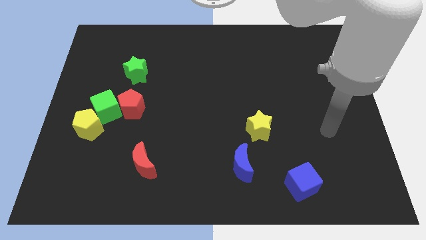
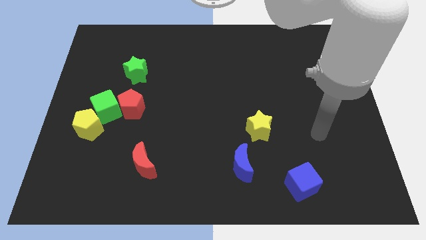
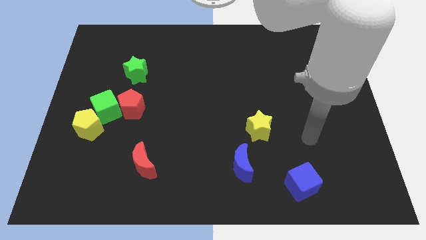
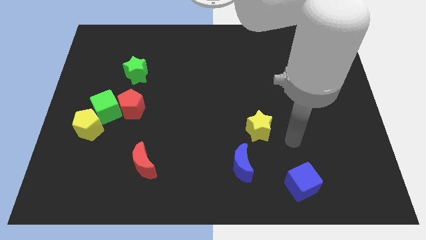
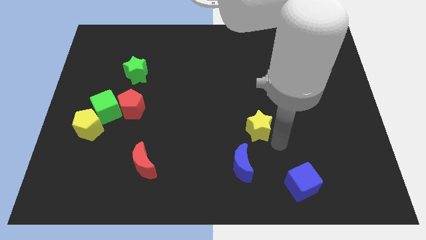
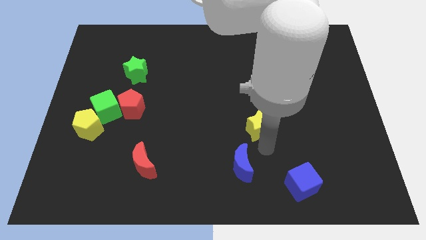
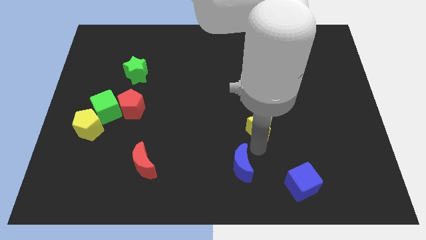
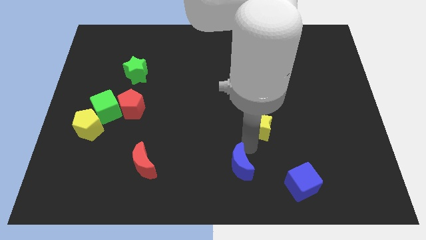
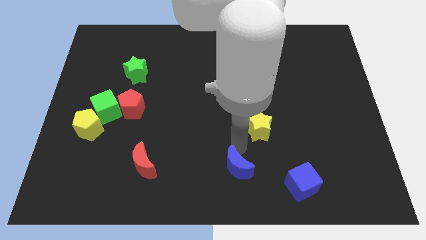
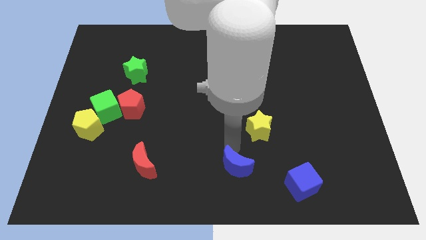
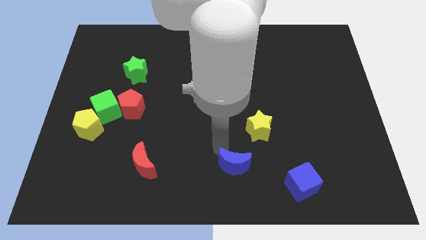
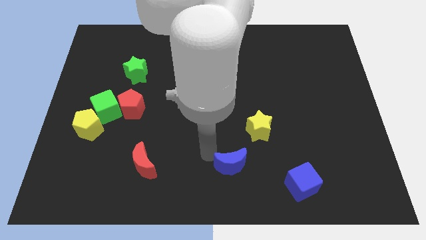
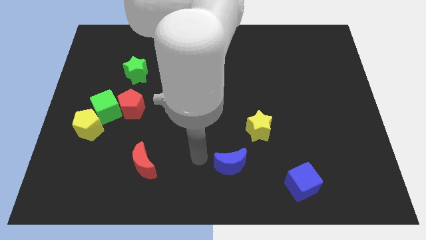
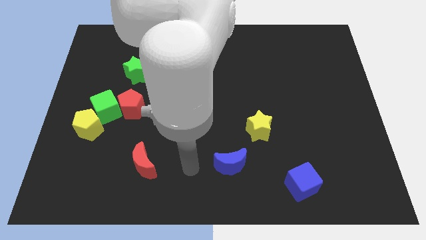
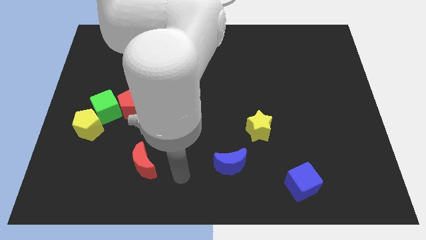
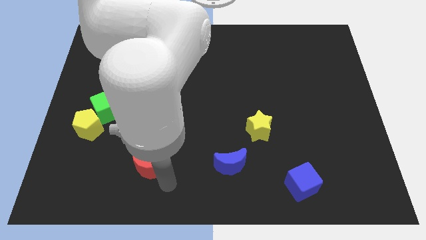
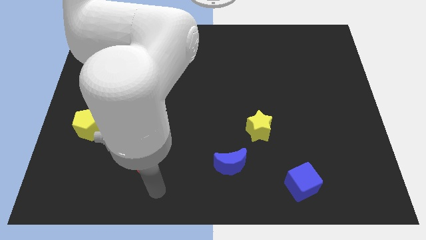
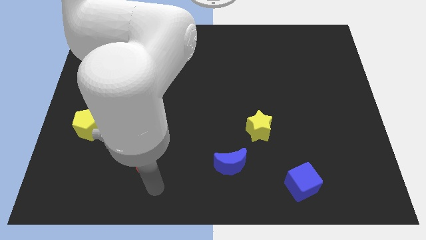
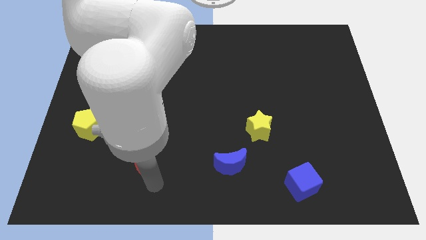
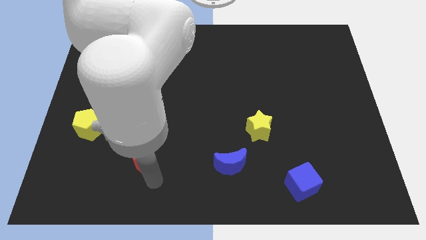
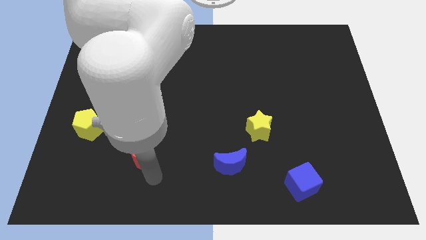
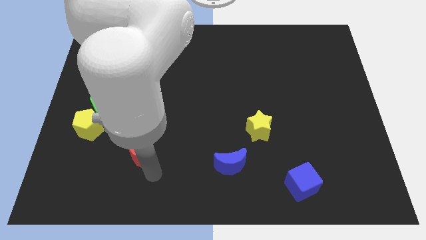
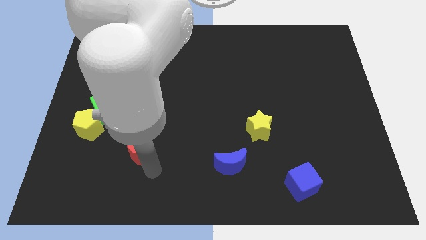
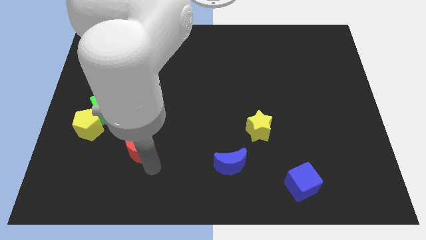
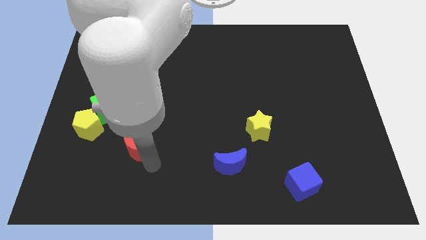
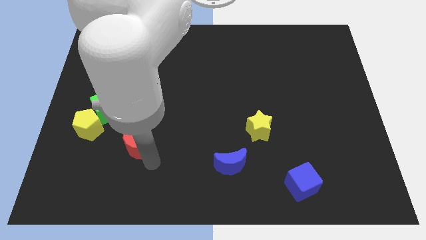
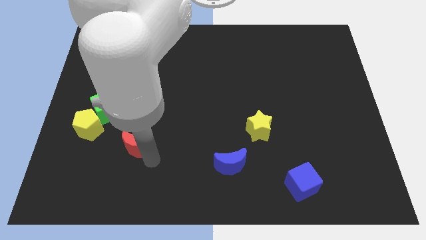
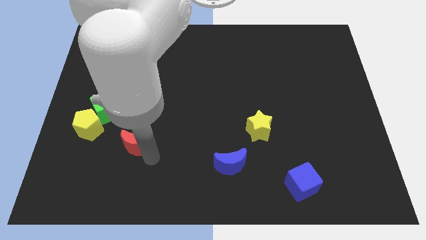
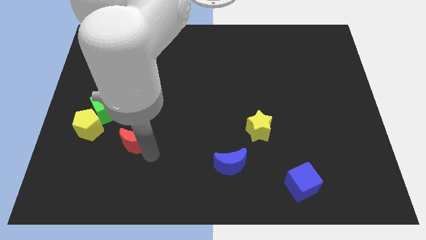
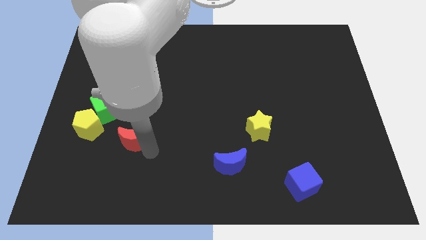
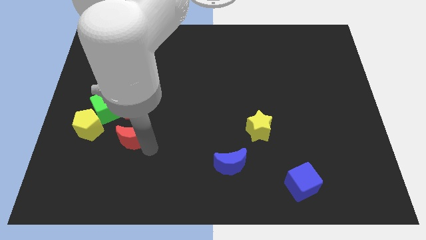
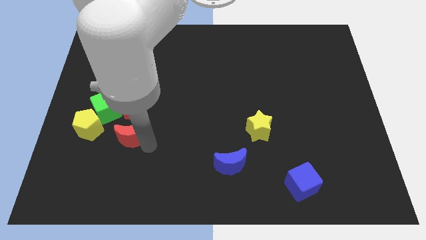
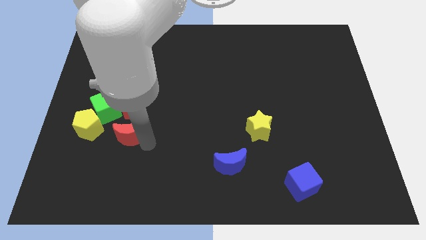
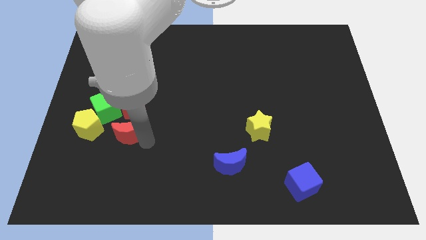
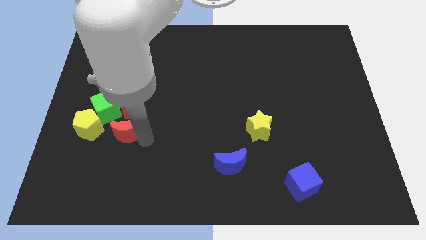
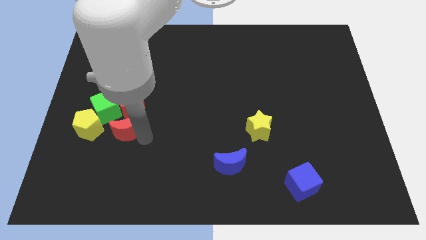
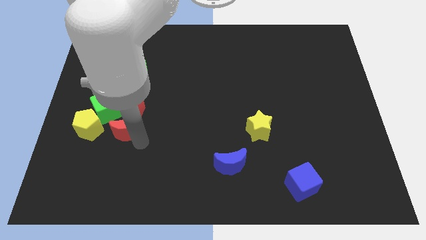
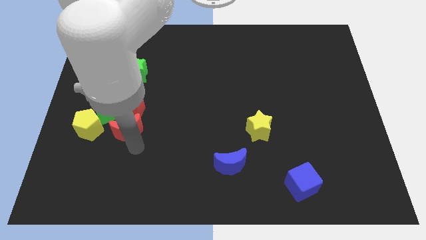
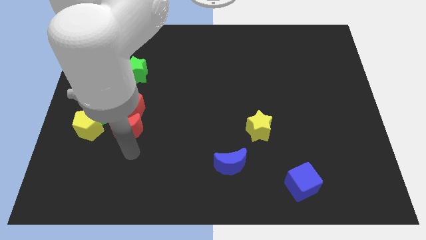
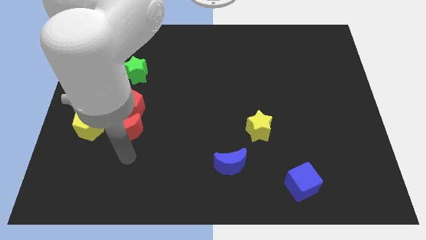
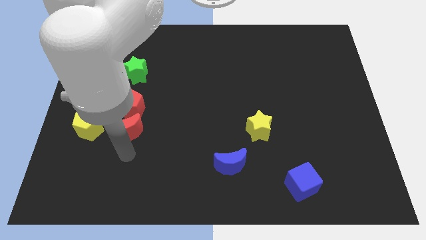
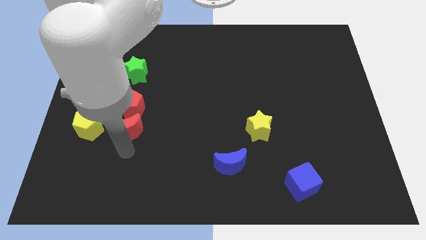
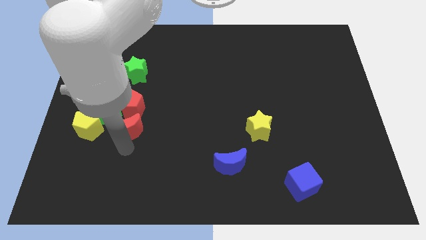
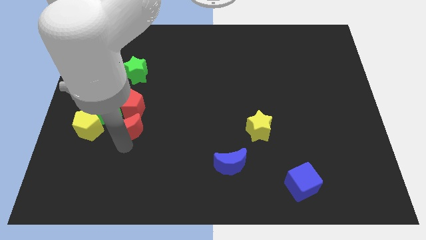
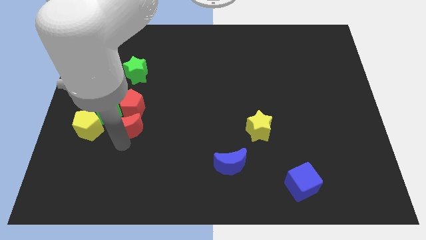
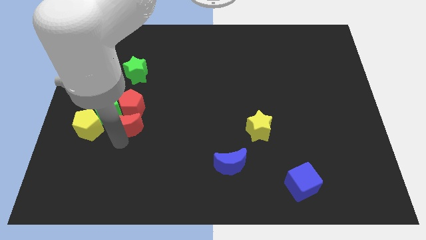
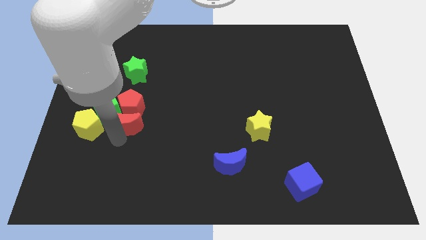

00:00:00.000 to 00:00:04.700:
put the red moon to the bottom side of the green star

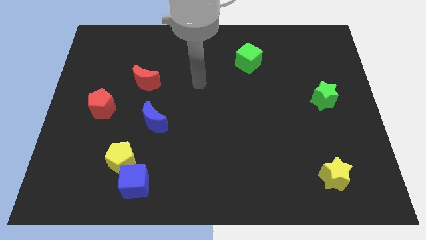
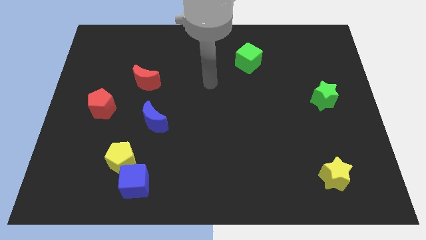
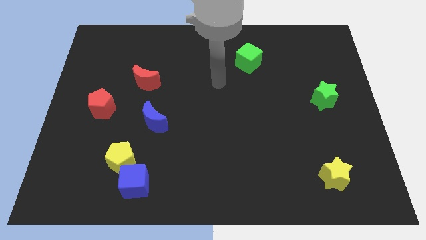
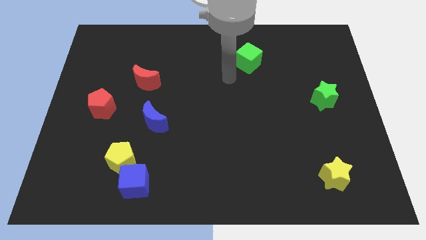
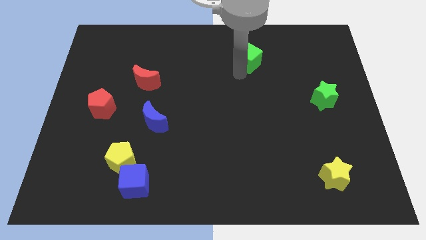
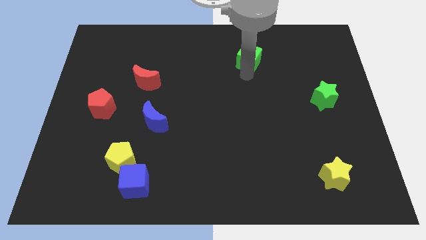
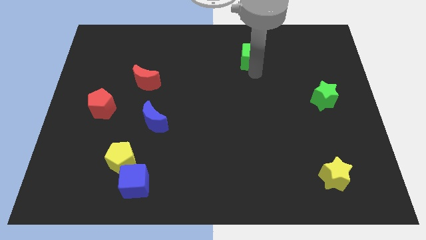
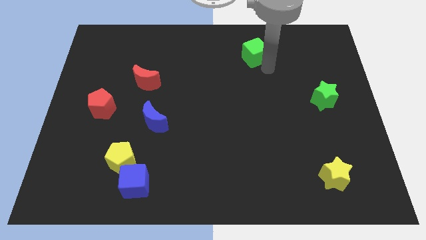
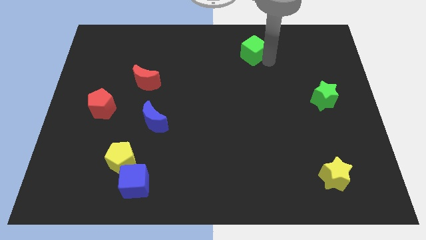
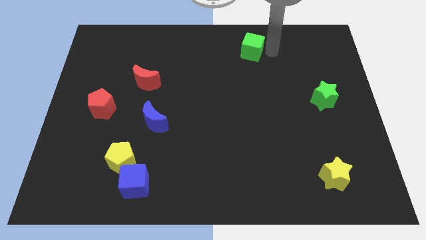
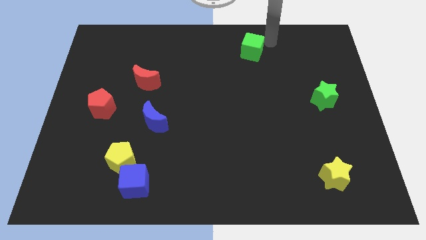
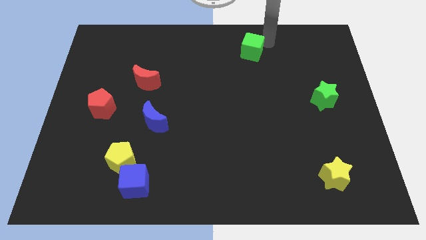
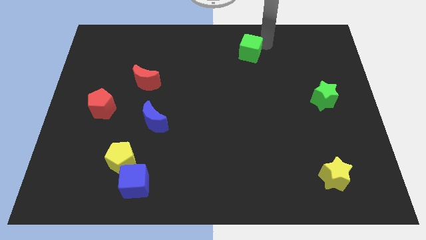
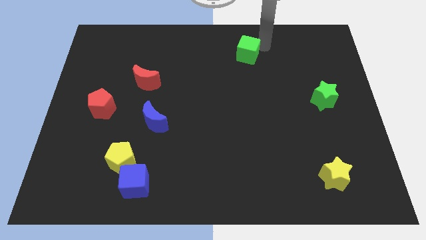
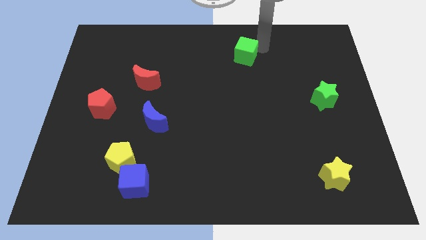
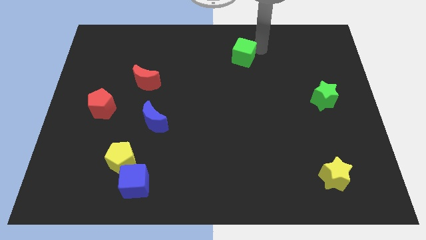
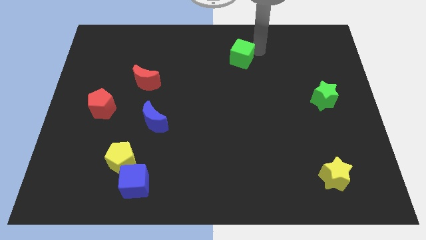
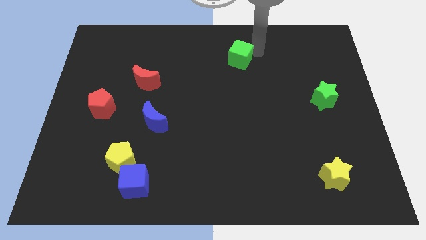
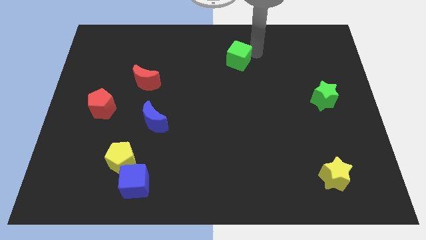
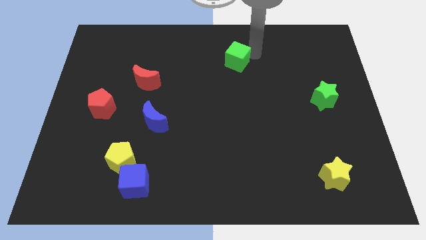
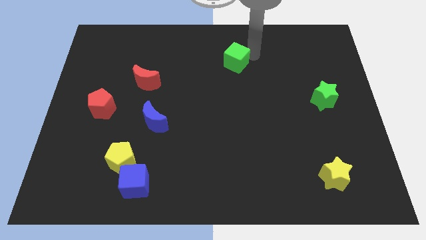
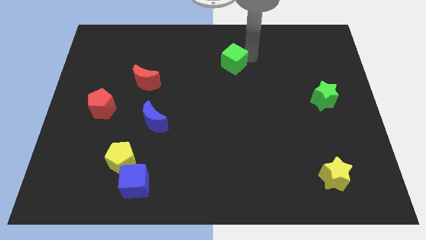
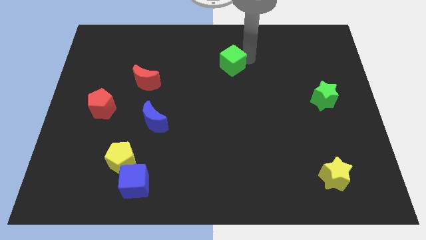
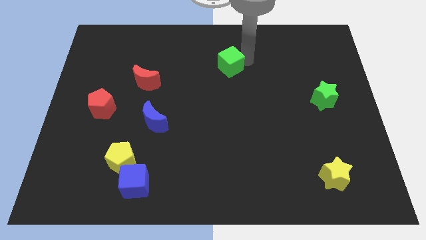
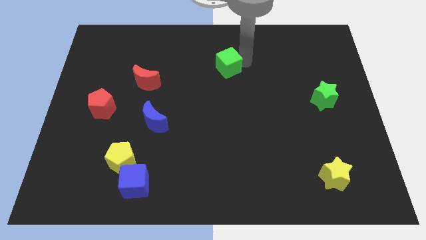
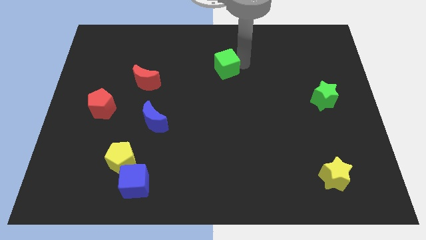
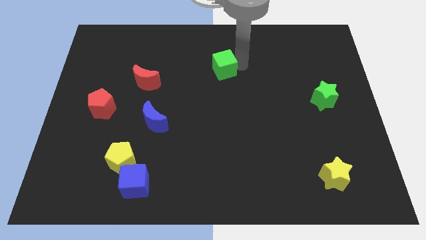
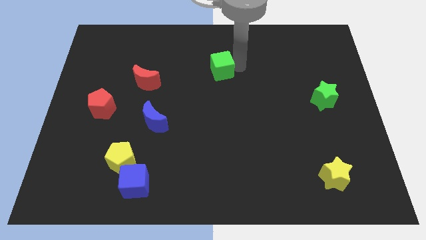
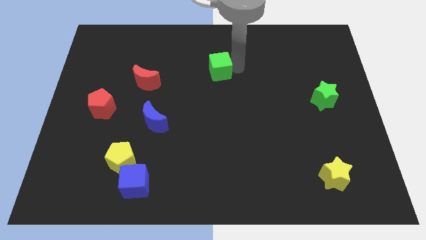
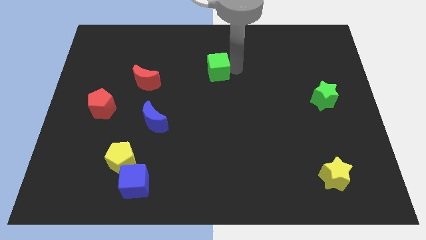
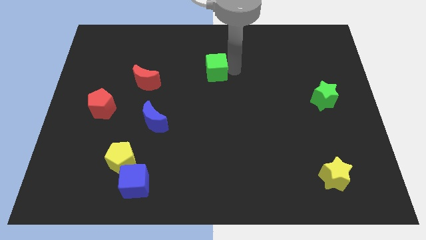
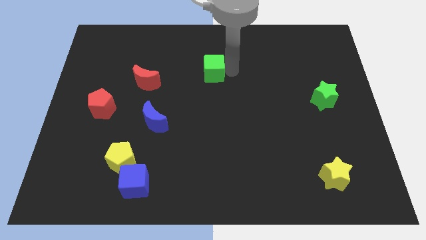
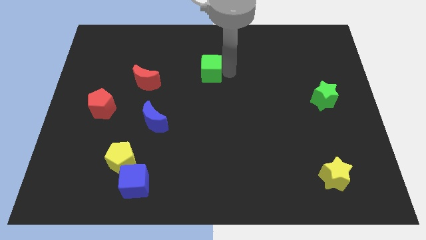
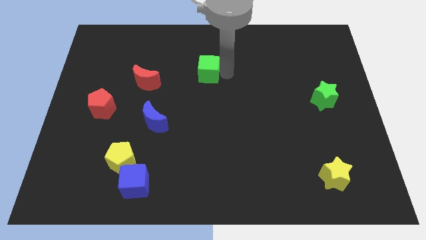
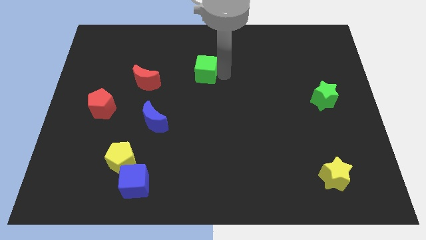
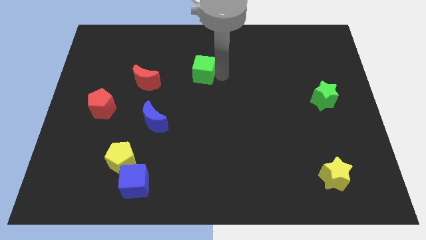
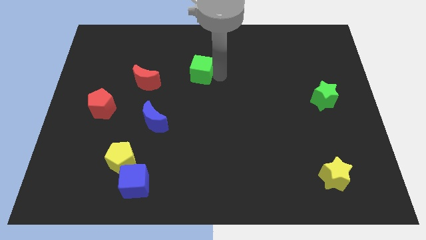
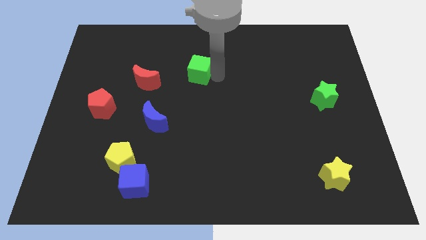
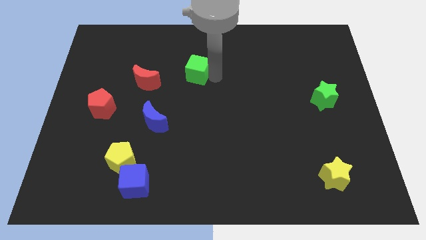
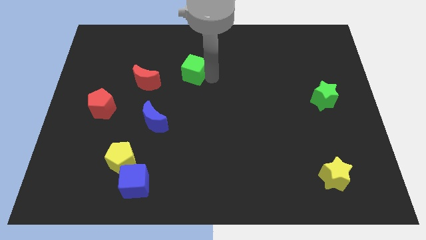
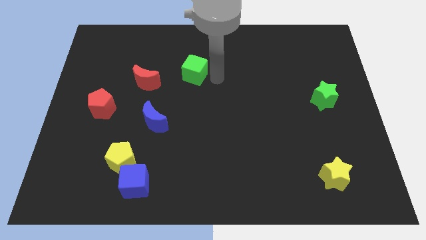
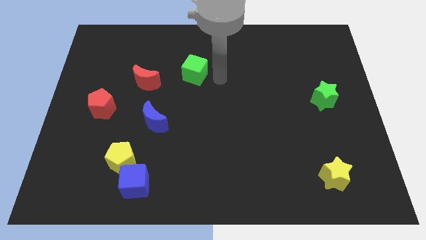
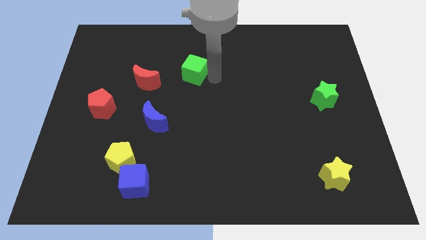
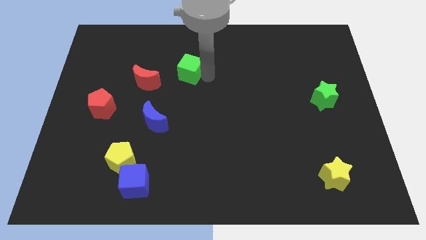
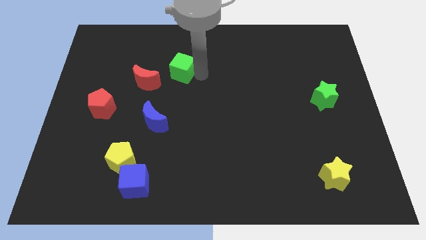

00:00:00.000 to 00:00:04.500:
push the green cube to the top right of the red moon
